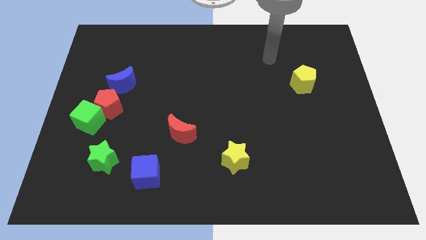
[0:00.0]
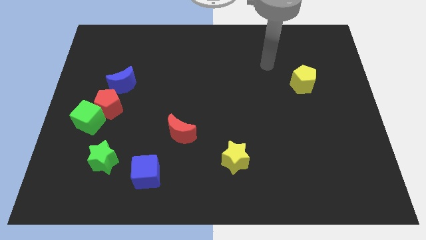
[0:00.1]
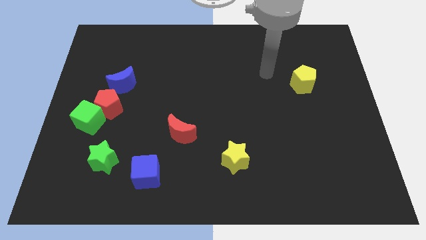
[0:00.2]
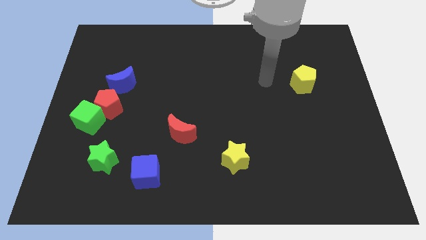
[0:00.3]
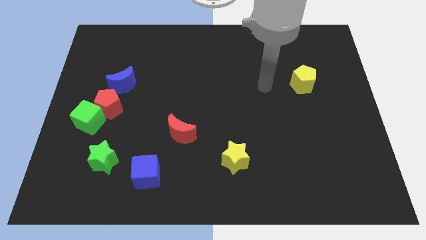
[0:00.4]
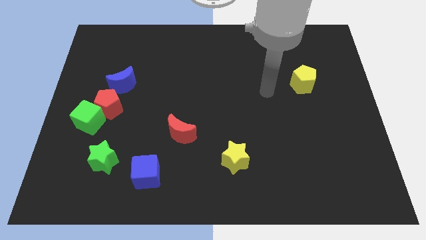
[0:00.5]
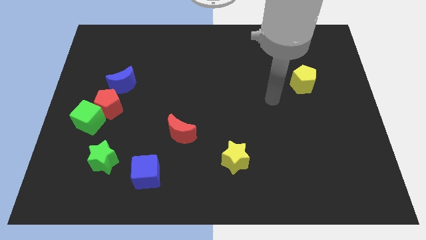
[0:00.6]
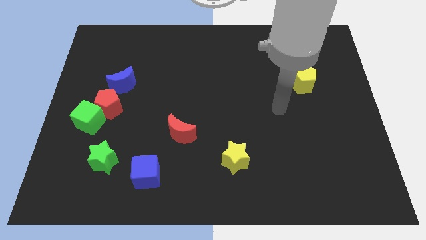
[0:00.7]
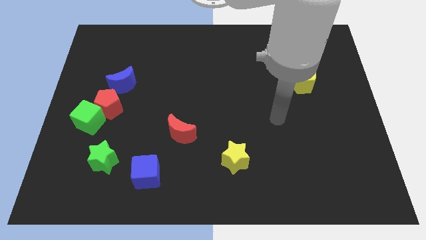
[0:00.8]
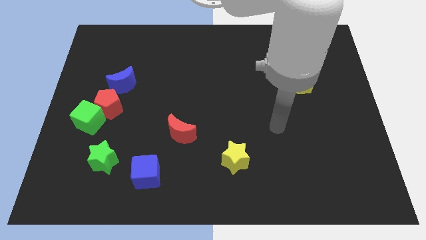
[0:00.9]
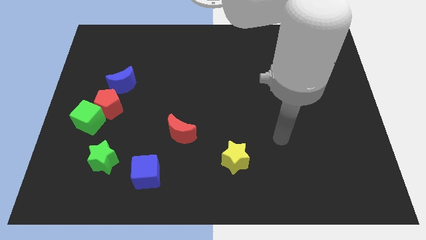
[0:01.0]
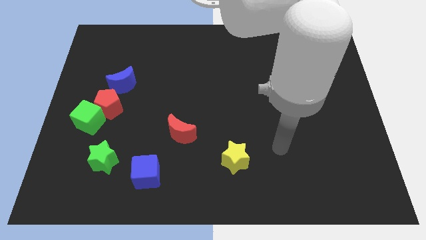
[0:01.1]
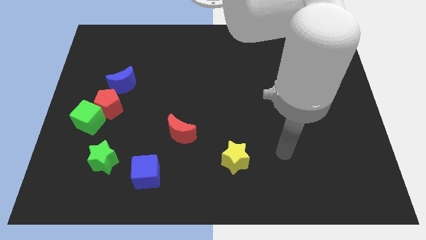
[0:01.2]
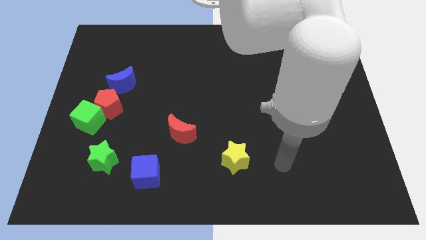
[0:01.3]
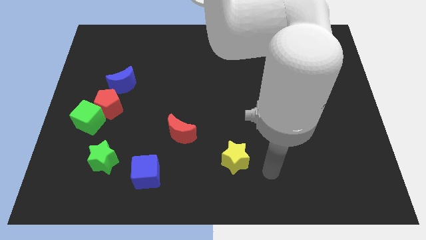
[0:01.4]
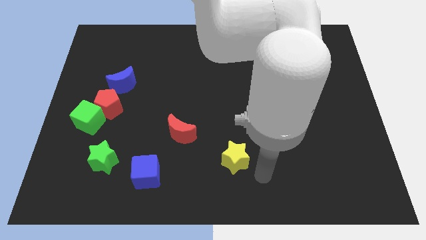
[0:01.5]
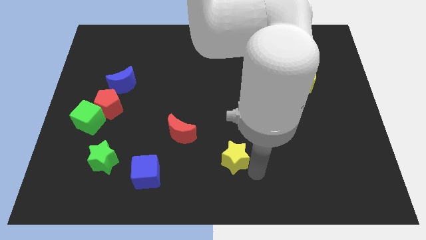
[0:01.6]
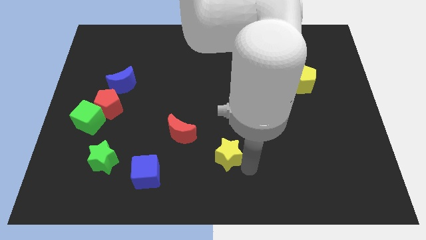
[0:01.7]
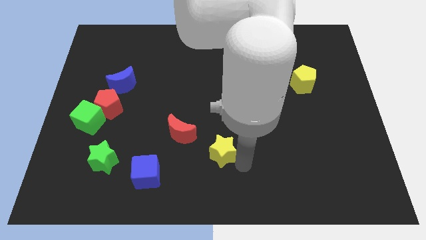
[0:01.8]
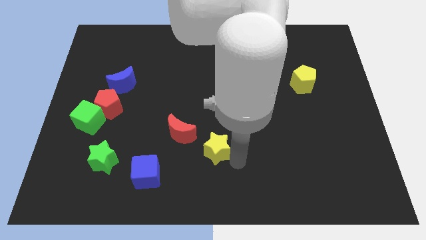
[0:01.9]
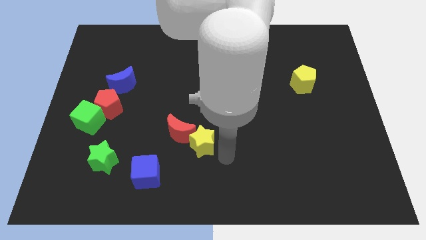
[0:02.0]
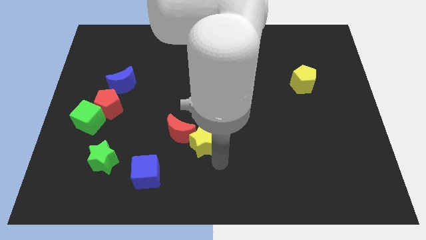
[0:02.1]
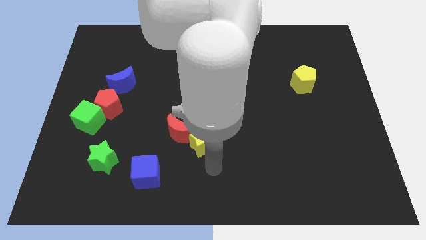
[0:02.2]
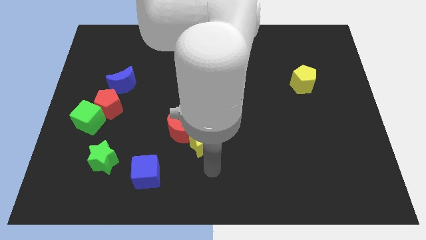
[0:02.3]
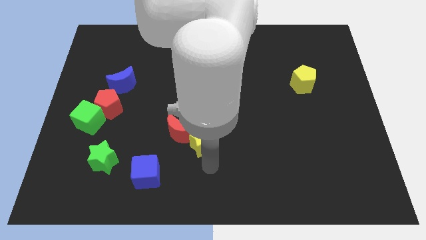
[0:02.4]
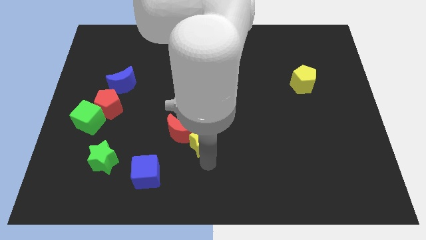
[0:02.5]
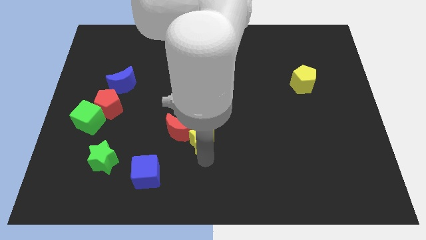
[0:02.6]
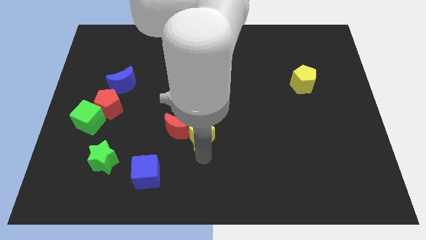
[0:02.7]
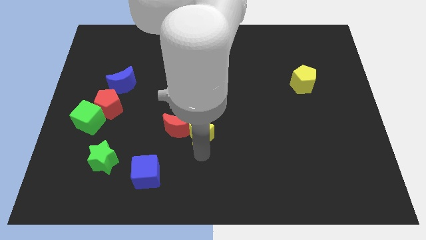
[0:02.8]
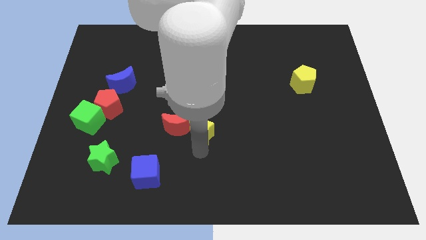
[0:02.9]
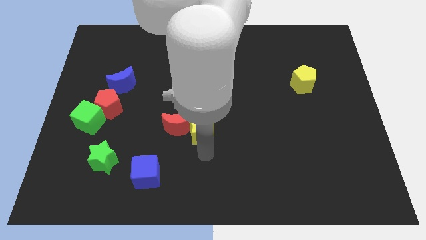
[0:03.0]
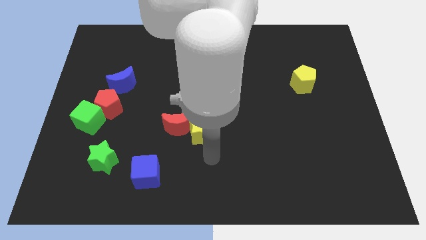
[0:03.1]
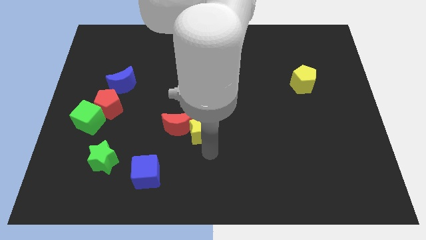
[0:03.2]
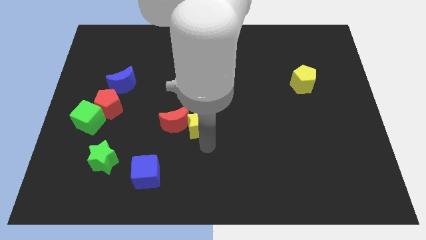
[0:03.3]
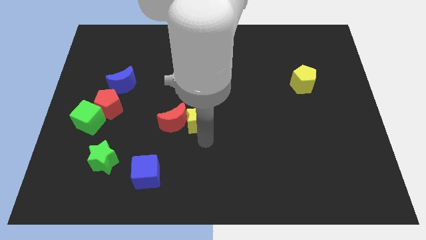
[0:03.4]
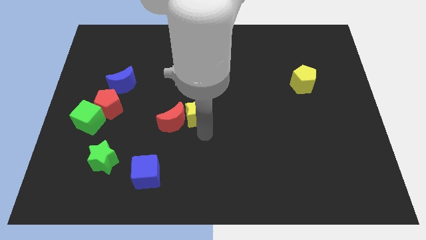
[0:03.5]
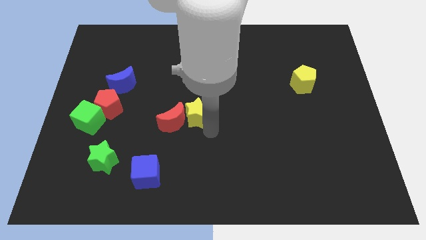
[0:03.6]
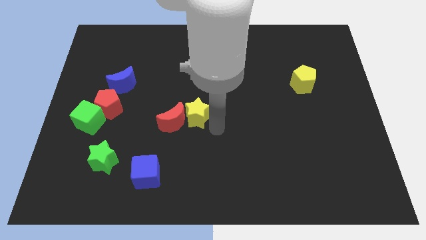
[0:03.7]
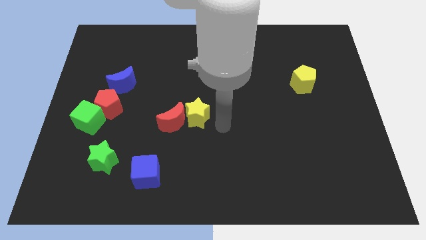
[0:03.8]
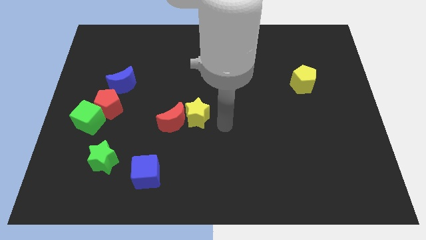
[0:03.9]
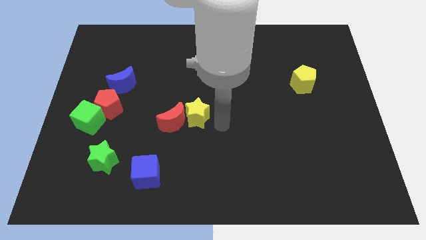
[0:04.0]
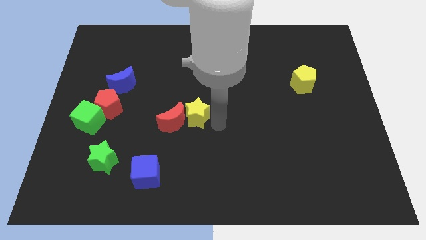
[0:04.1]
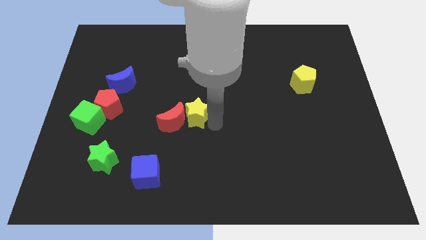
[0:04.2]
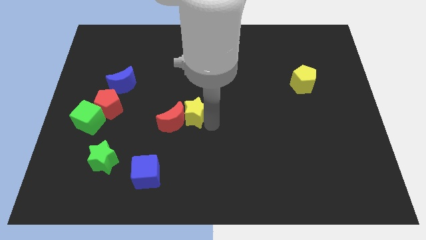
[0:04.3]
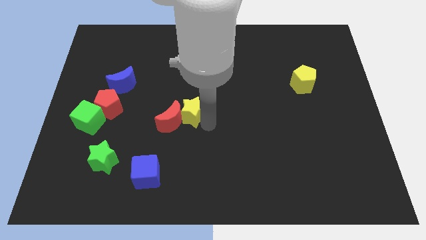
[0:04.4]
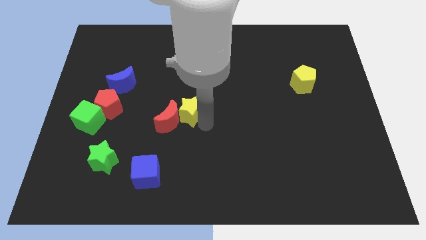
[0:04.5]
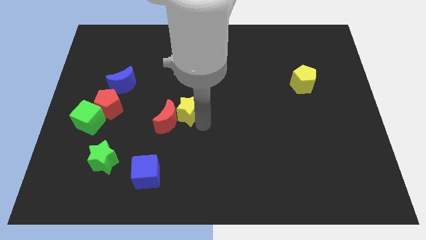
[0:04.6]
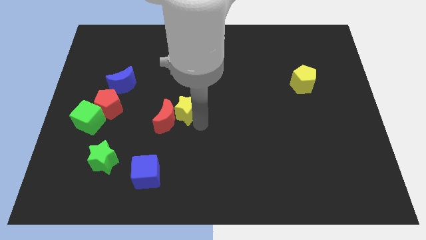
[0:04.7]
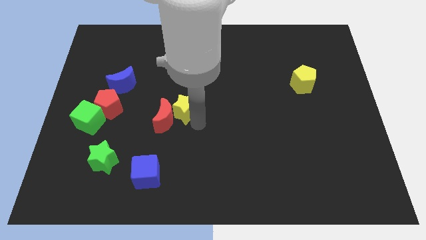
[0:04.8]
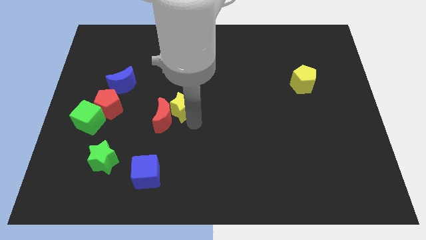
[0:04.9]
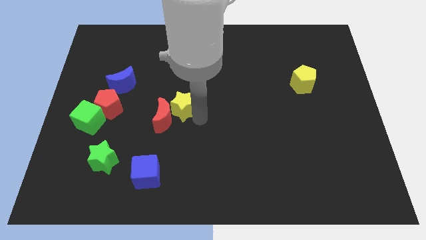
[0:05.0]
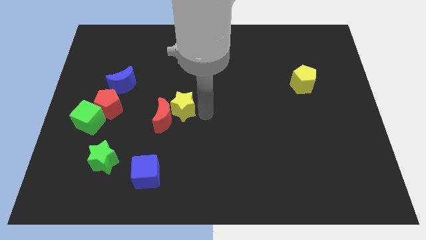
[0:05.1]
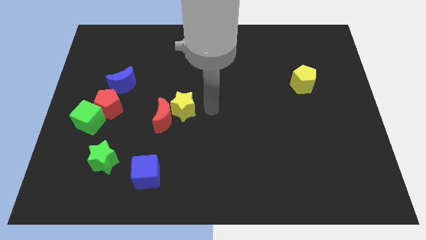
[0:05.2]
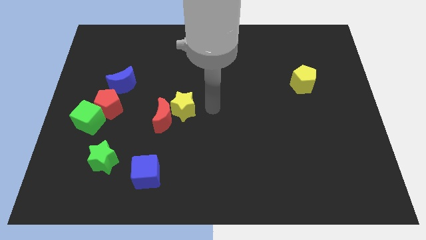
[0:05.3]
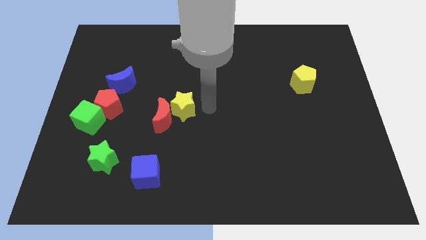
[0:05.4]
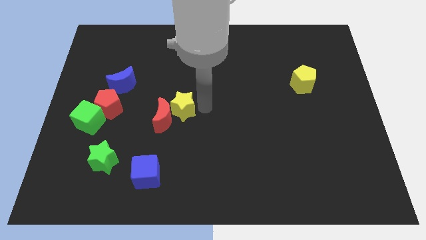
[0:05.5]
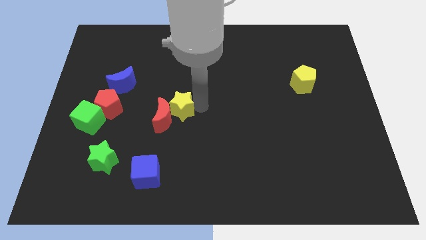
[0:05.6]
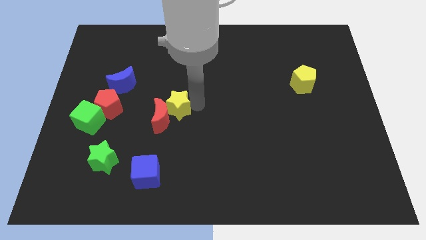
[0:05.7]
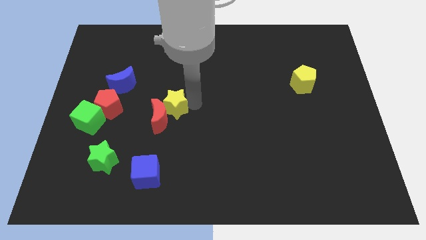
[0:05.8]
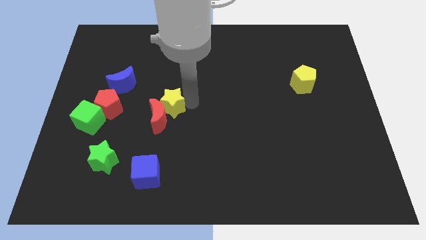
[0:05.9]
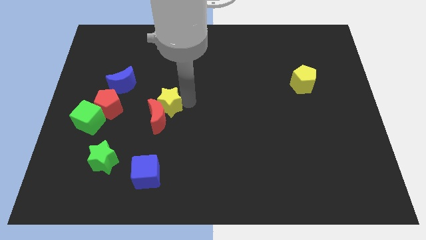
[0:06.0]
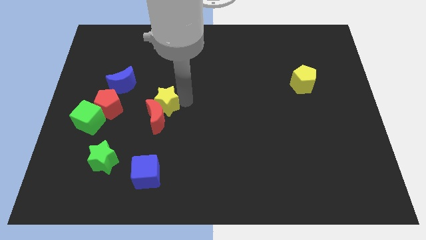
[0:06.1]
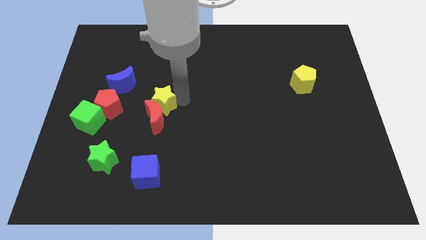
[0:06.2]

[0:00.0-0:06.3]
slide the yellow star to the bottom right side of the blue moon

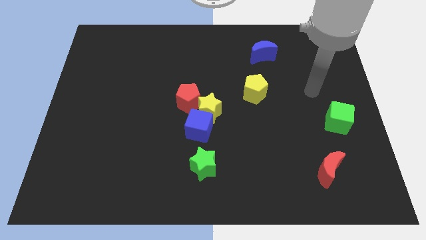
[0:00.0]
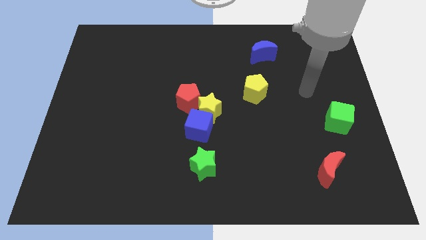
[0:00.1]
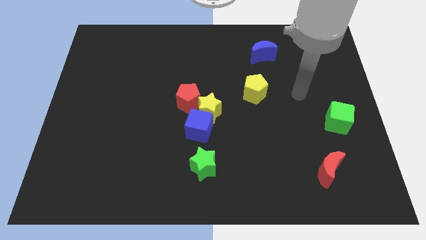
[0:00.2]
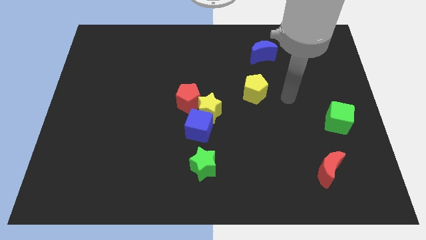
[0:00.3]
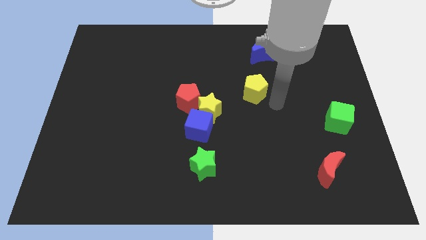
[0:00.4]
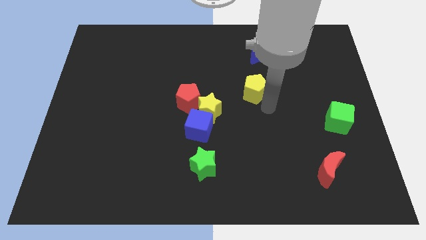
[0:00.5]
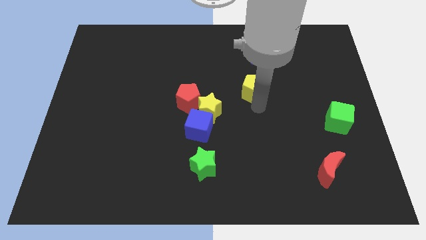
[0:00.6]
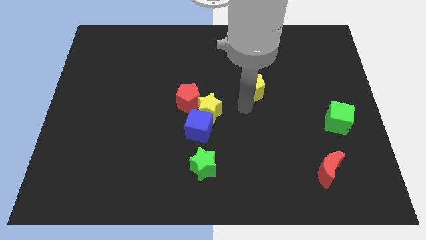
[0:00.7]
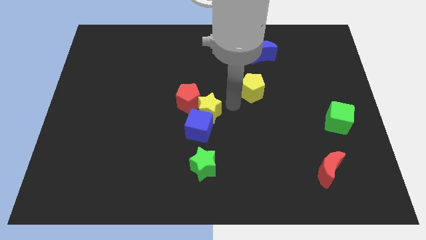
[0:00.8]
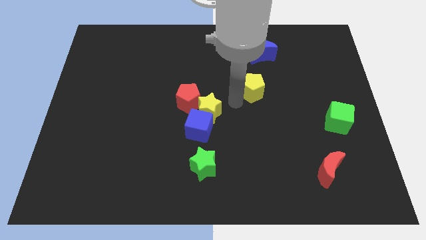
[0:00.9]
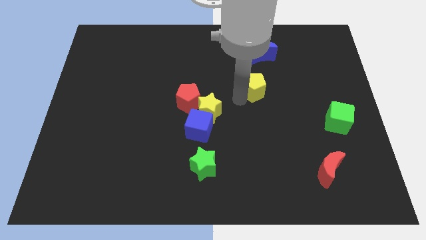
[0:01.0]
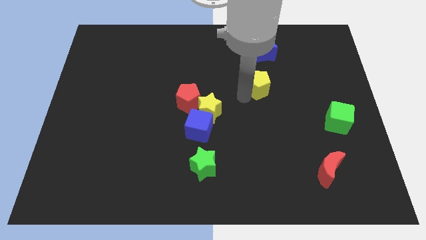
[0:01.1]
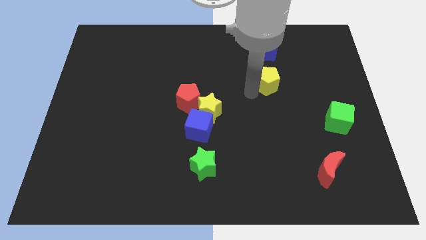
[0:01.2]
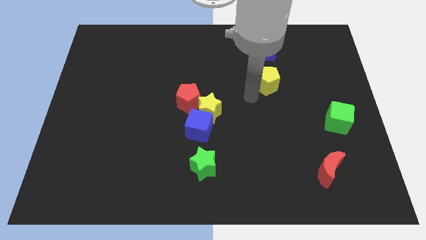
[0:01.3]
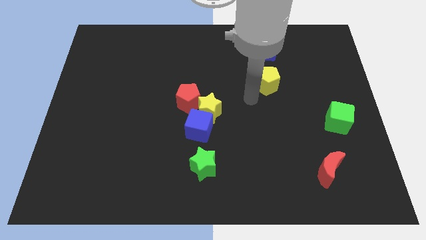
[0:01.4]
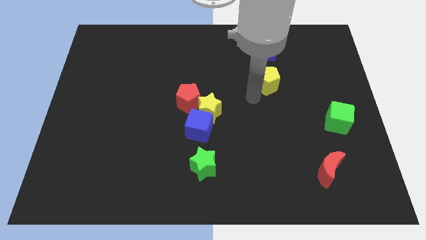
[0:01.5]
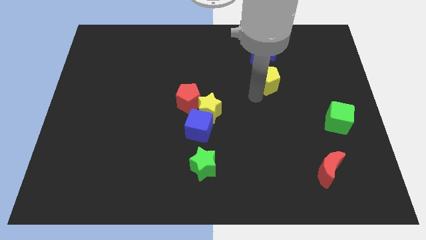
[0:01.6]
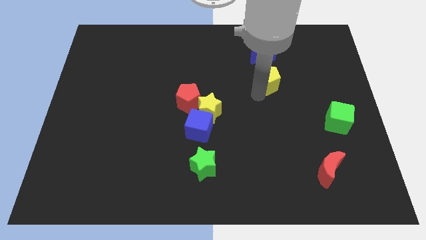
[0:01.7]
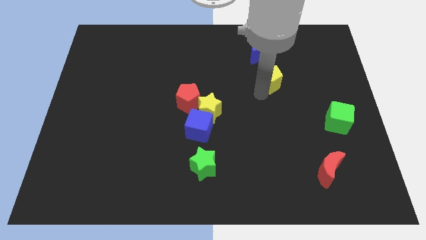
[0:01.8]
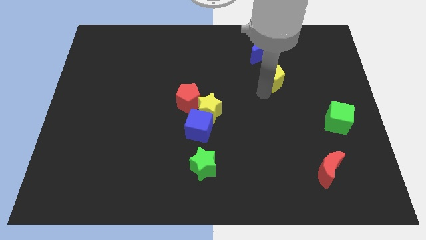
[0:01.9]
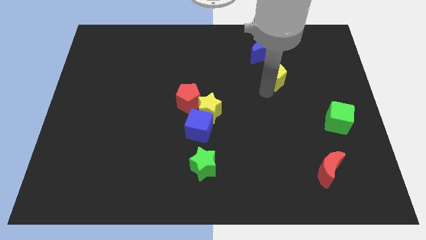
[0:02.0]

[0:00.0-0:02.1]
put the yellow pentagon diagonally down and to the right of the blue moon
